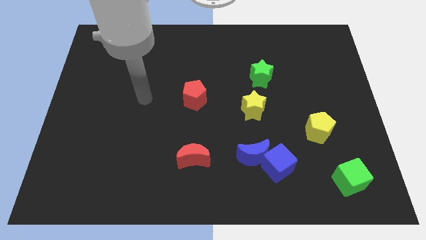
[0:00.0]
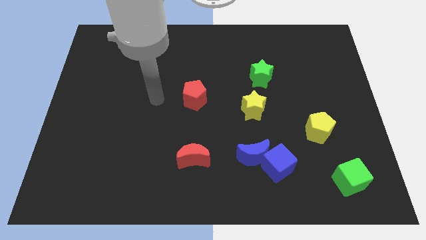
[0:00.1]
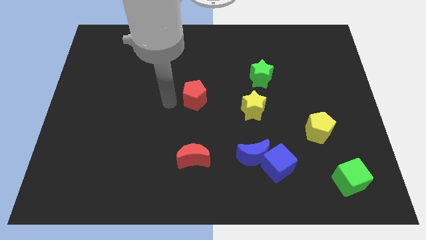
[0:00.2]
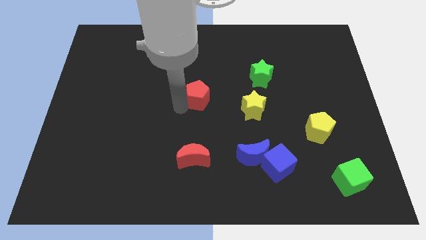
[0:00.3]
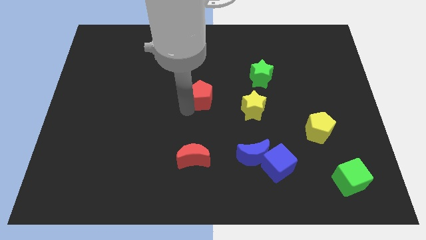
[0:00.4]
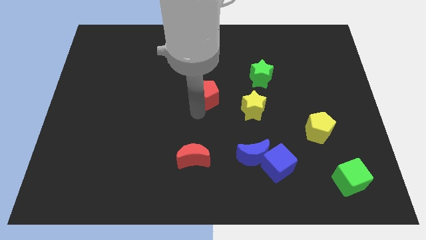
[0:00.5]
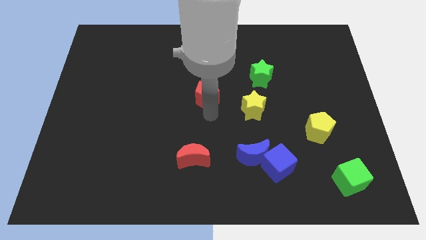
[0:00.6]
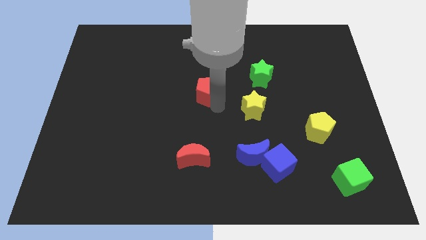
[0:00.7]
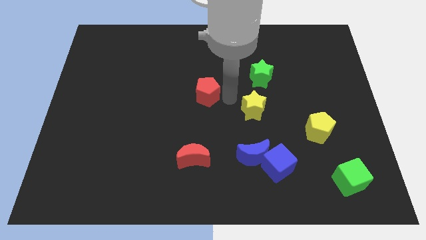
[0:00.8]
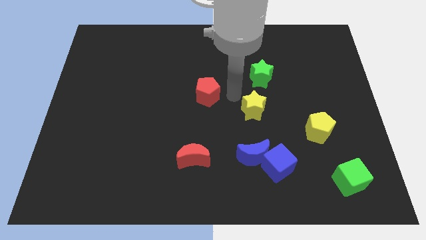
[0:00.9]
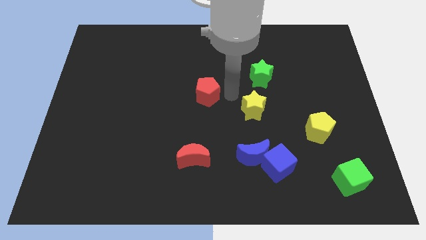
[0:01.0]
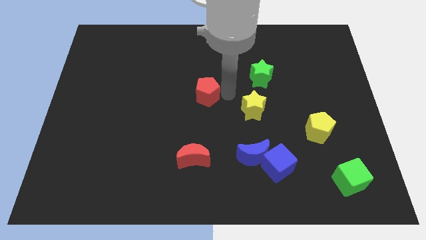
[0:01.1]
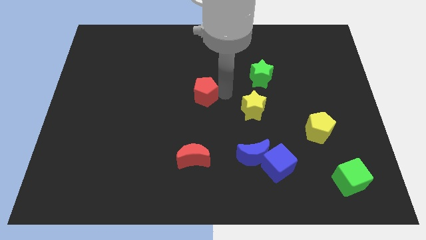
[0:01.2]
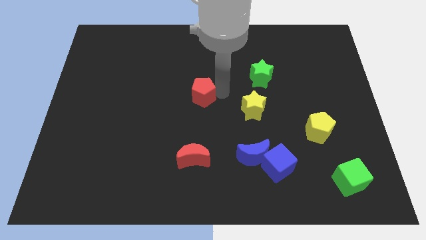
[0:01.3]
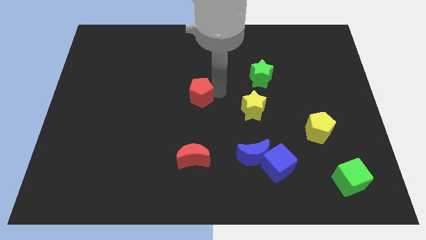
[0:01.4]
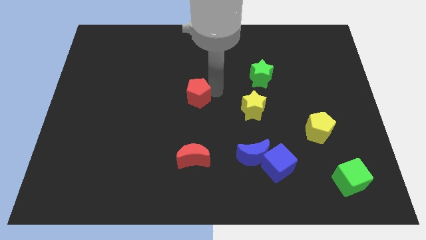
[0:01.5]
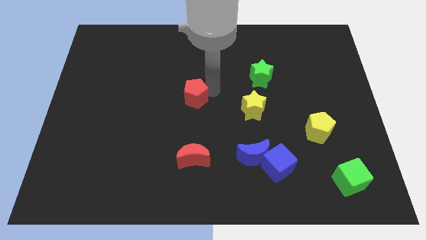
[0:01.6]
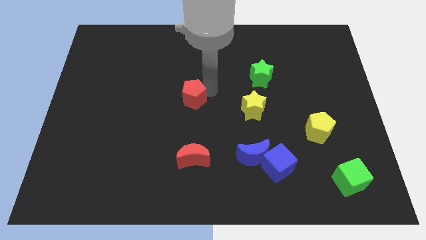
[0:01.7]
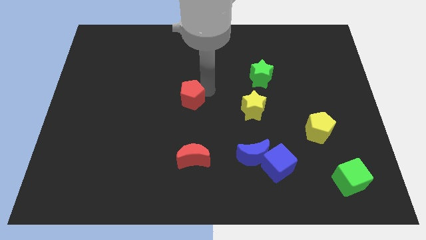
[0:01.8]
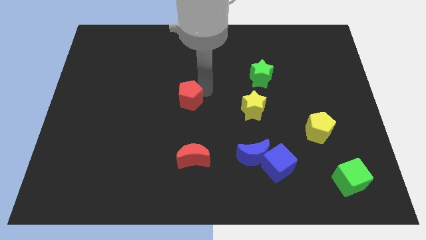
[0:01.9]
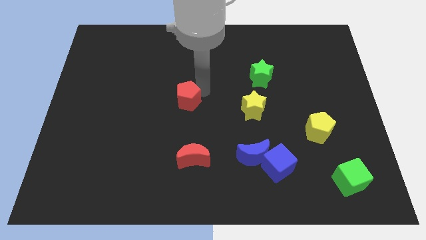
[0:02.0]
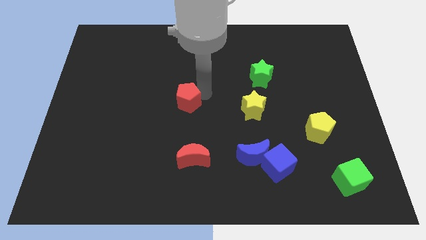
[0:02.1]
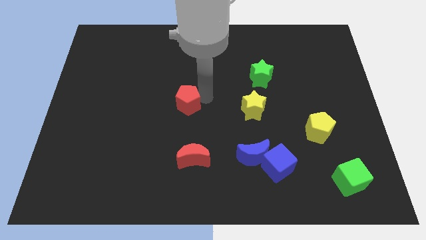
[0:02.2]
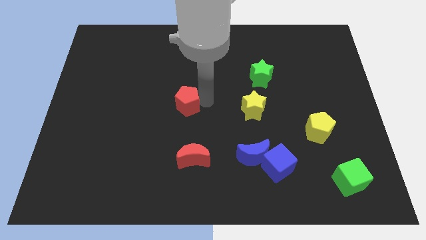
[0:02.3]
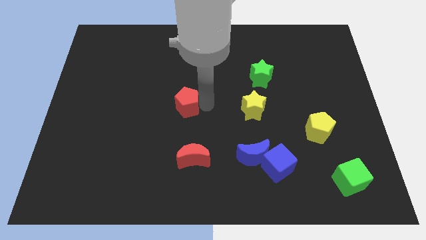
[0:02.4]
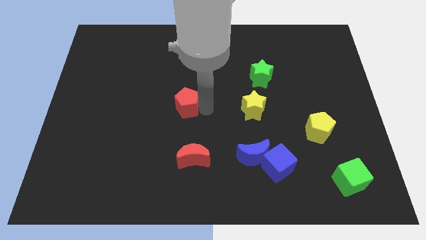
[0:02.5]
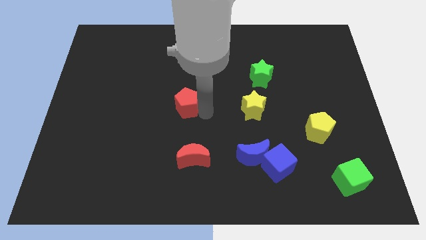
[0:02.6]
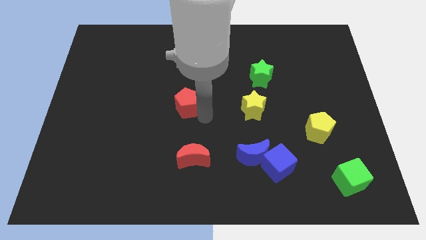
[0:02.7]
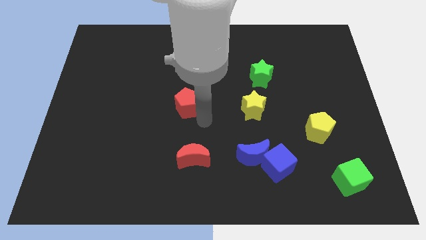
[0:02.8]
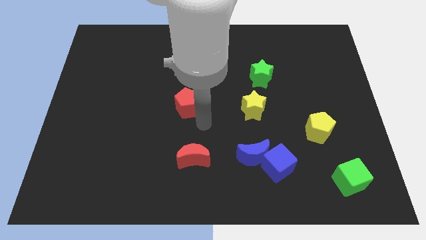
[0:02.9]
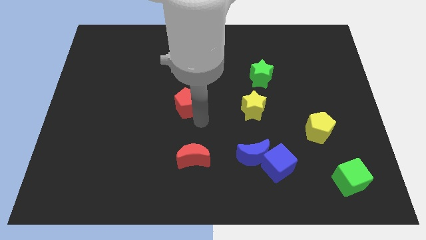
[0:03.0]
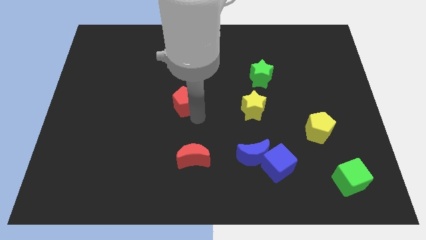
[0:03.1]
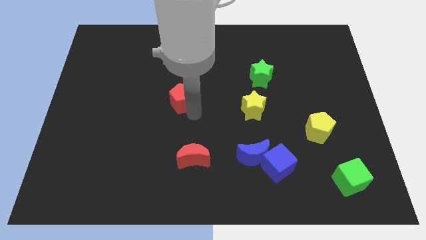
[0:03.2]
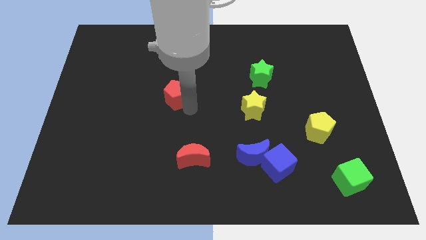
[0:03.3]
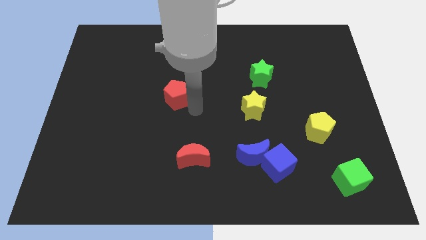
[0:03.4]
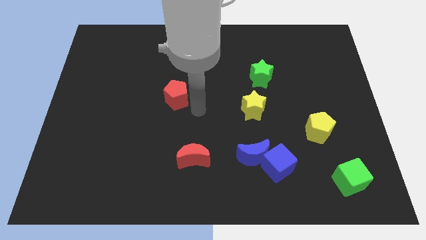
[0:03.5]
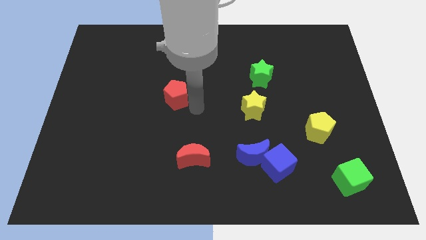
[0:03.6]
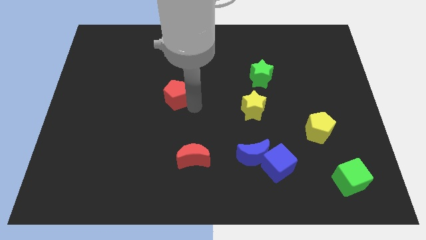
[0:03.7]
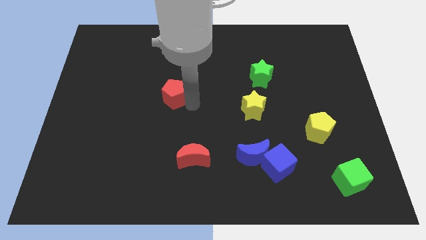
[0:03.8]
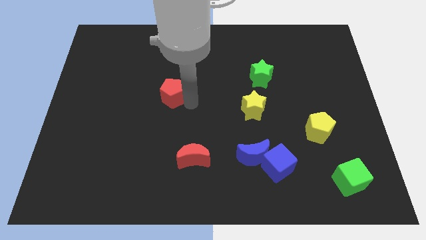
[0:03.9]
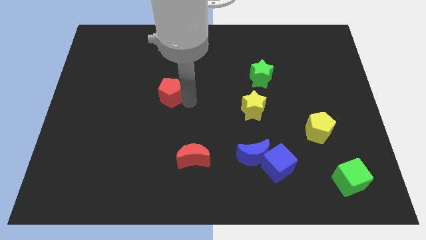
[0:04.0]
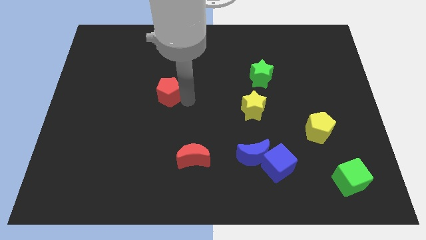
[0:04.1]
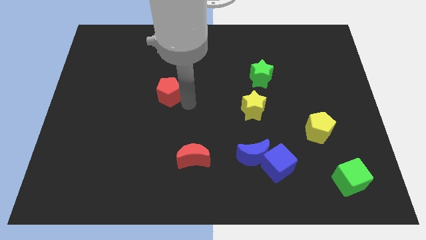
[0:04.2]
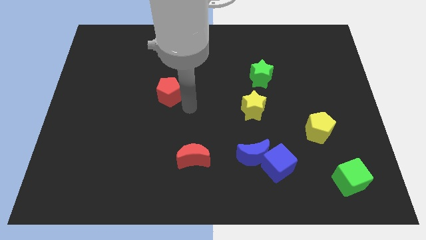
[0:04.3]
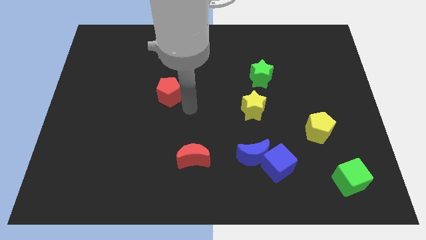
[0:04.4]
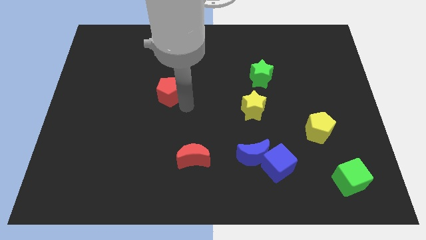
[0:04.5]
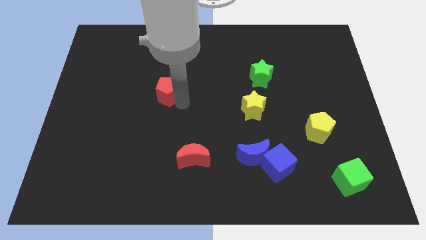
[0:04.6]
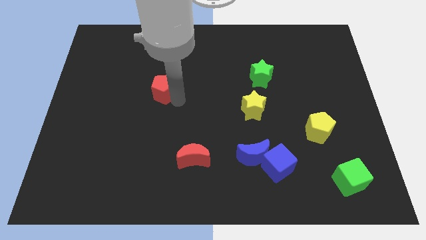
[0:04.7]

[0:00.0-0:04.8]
push the red pentagon a bit left

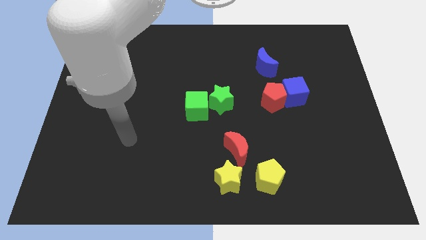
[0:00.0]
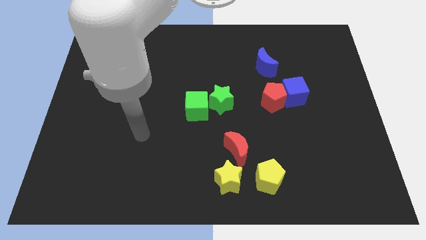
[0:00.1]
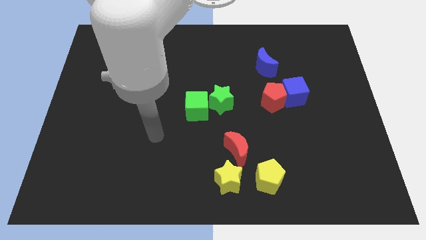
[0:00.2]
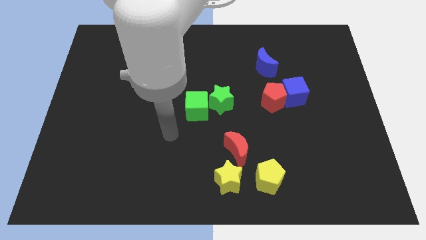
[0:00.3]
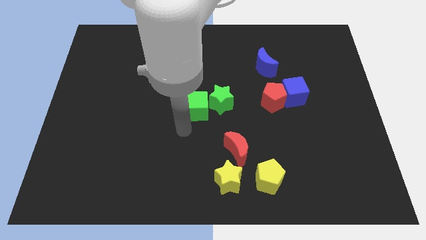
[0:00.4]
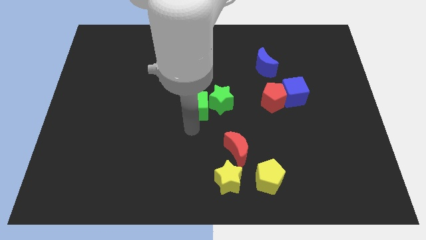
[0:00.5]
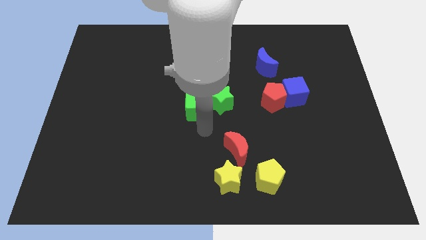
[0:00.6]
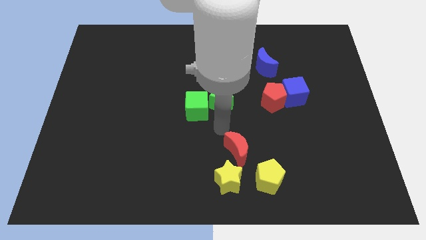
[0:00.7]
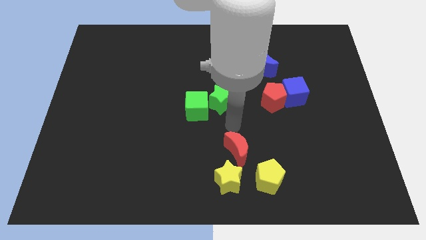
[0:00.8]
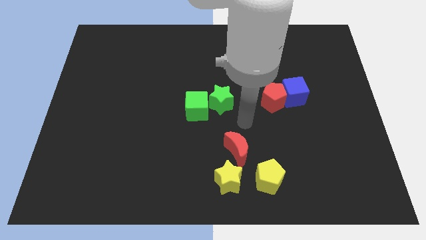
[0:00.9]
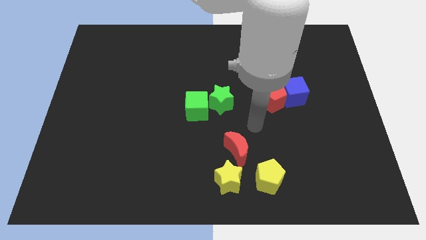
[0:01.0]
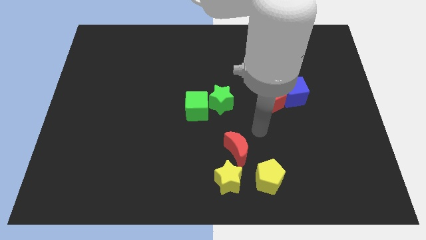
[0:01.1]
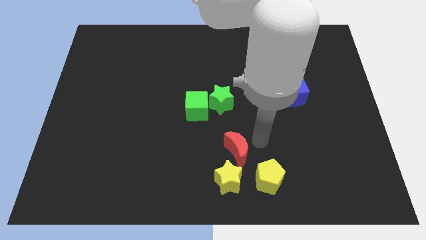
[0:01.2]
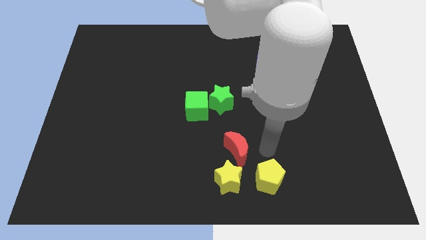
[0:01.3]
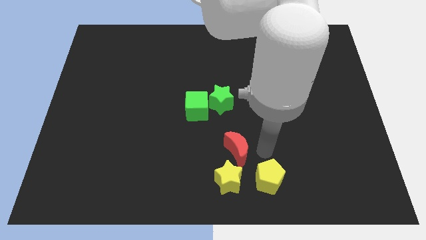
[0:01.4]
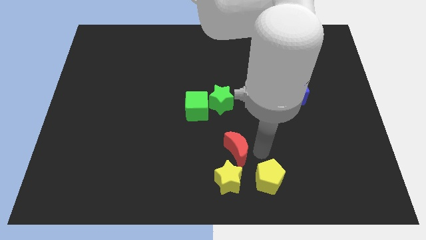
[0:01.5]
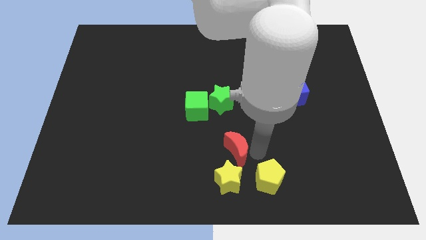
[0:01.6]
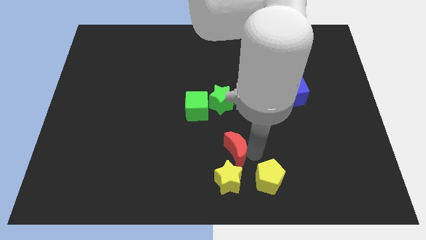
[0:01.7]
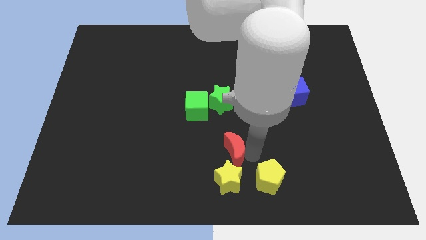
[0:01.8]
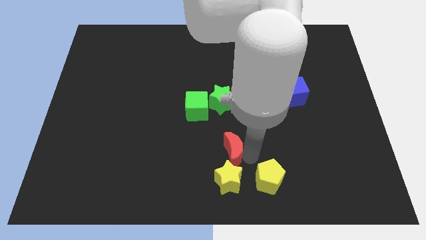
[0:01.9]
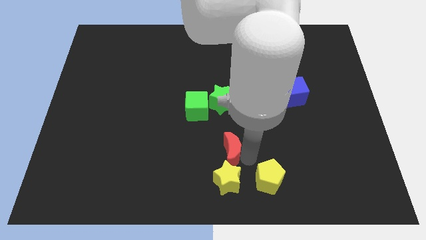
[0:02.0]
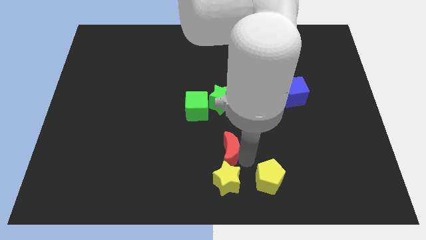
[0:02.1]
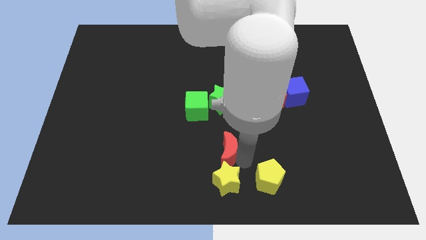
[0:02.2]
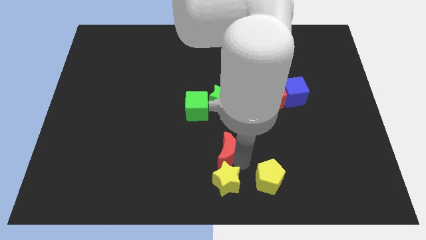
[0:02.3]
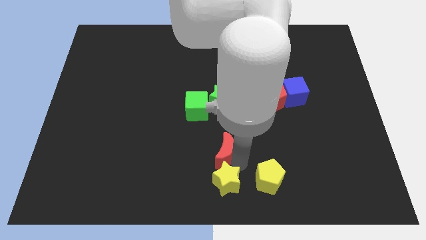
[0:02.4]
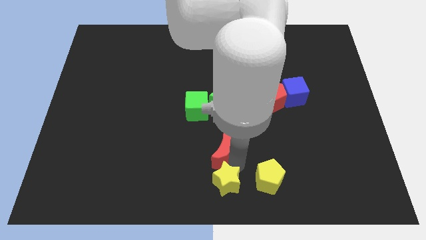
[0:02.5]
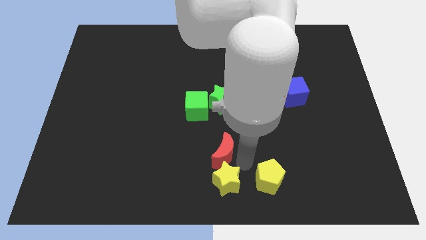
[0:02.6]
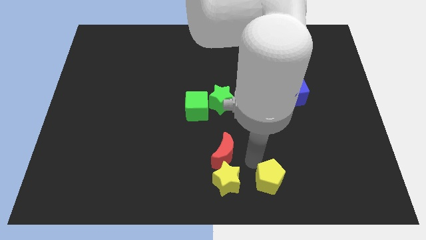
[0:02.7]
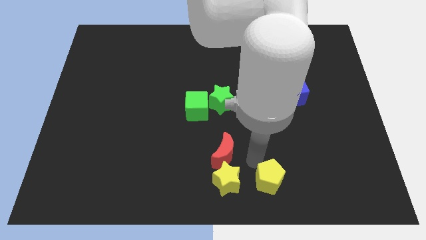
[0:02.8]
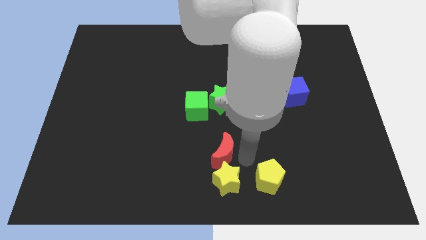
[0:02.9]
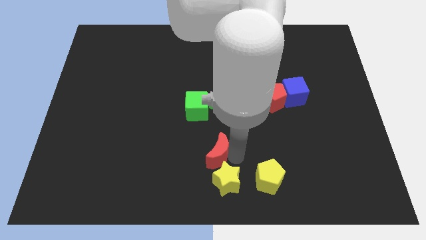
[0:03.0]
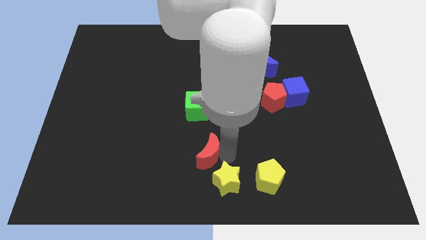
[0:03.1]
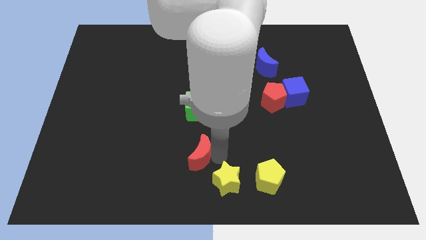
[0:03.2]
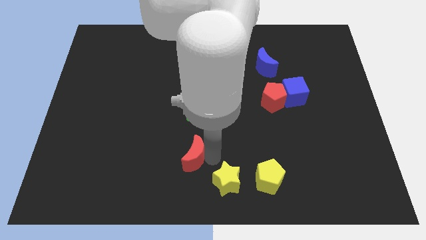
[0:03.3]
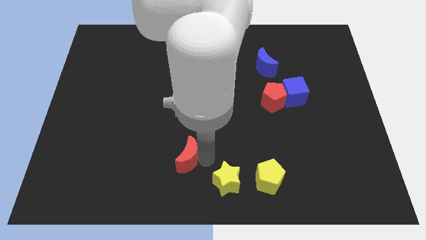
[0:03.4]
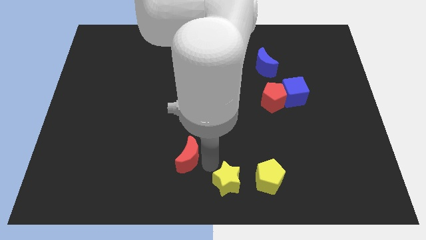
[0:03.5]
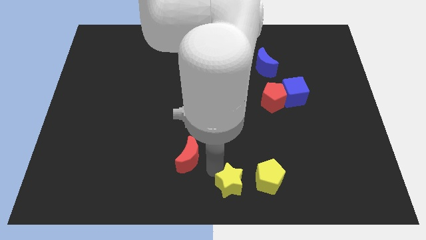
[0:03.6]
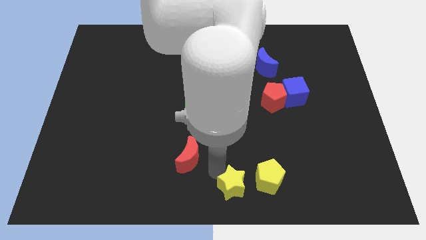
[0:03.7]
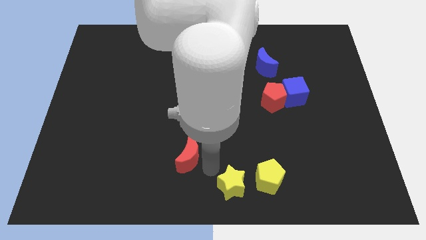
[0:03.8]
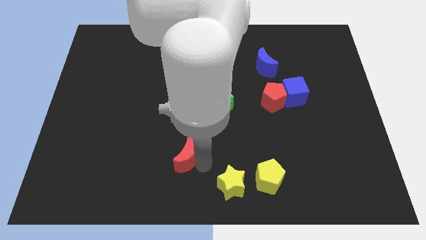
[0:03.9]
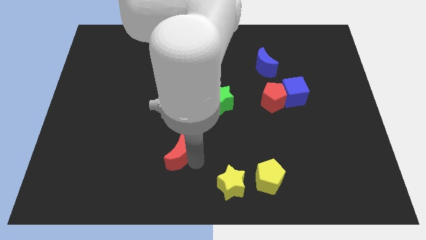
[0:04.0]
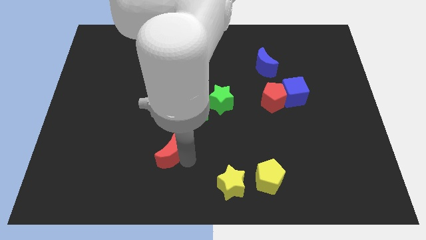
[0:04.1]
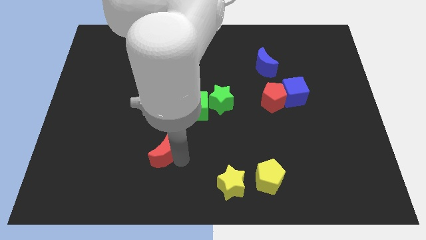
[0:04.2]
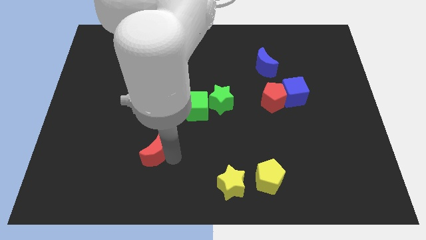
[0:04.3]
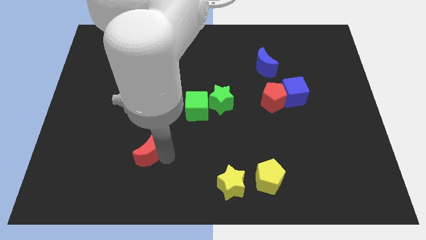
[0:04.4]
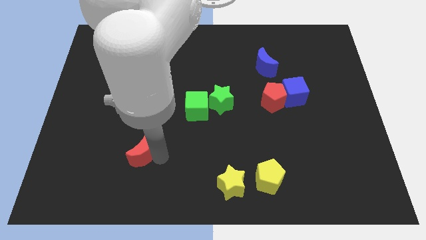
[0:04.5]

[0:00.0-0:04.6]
move the red moon to the left
